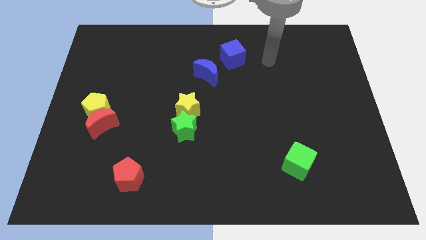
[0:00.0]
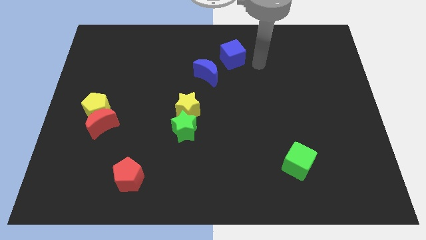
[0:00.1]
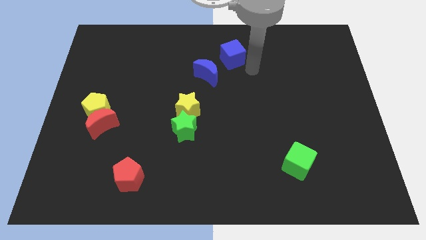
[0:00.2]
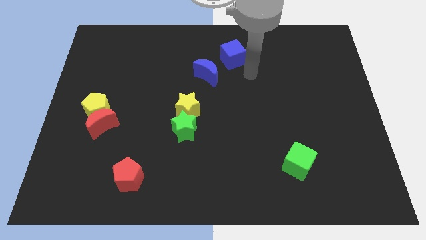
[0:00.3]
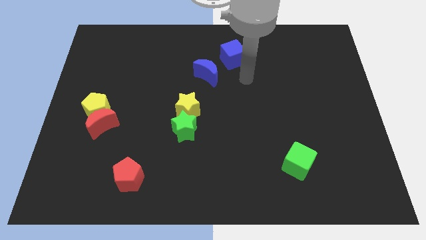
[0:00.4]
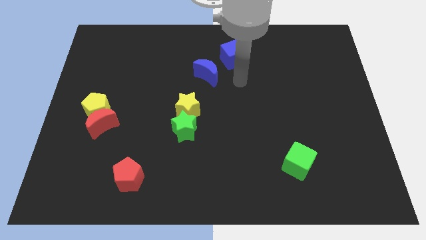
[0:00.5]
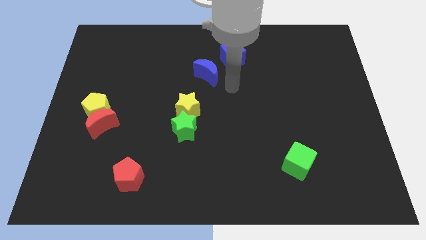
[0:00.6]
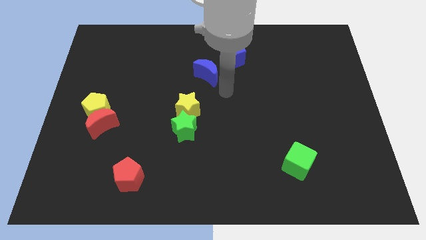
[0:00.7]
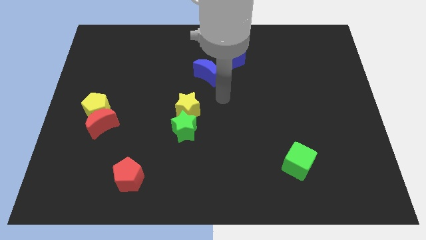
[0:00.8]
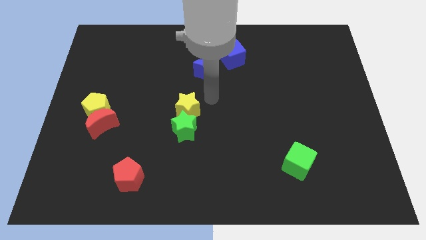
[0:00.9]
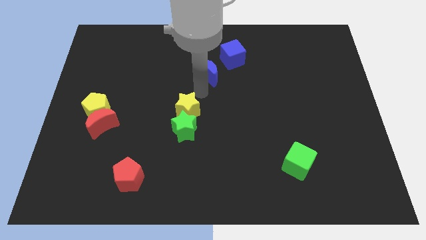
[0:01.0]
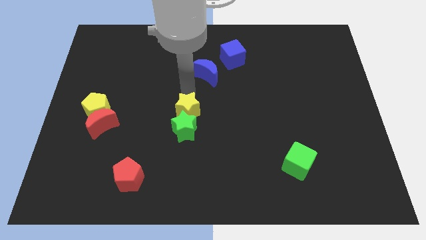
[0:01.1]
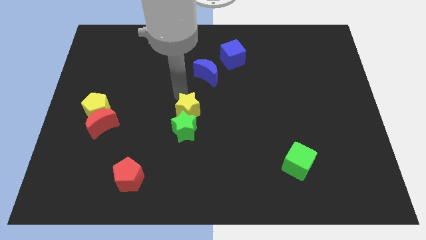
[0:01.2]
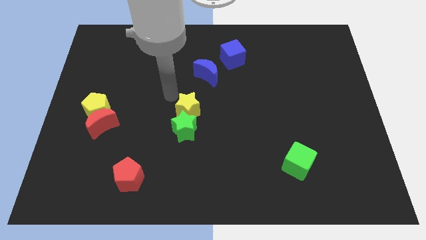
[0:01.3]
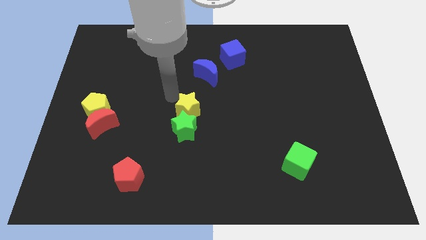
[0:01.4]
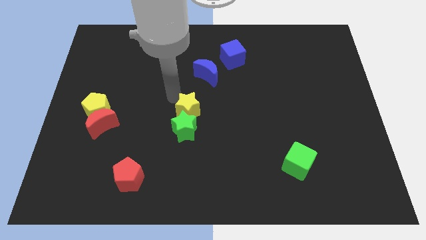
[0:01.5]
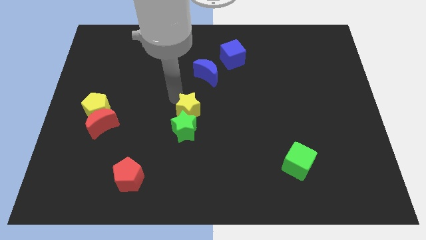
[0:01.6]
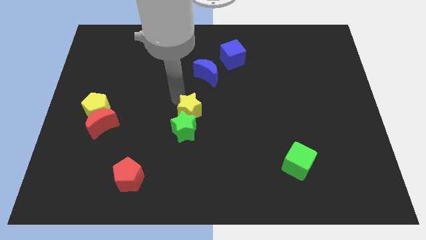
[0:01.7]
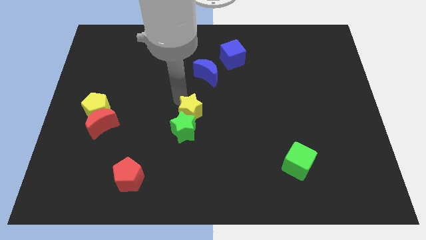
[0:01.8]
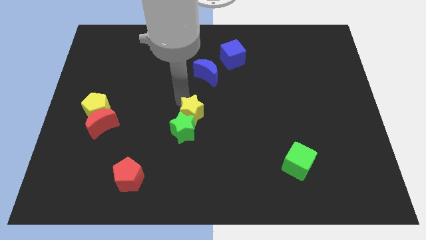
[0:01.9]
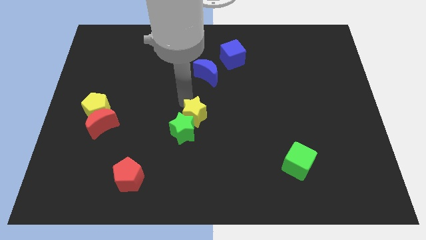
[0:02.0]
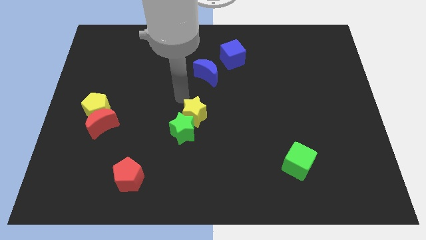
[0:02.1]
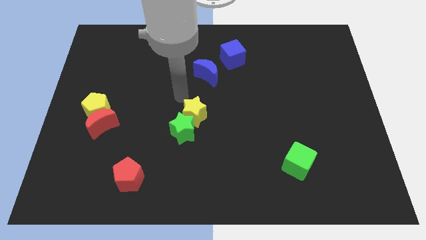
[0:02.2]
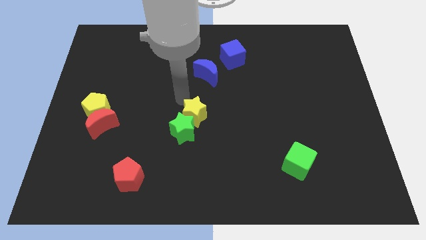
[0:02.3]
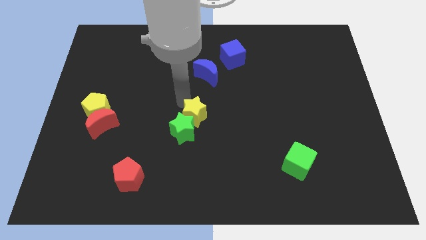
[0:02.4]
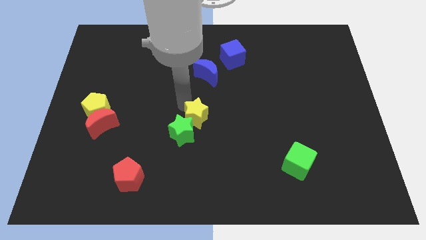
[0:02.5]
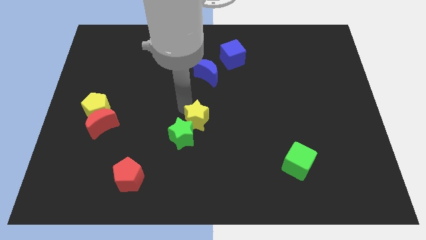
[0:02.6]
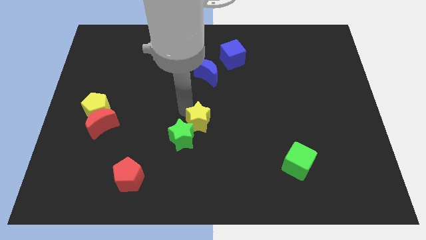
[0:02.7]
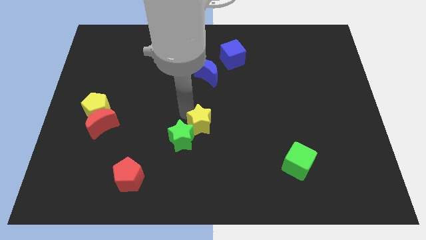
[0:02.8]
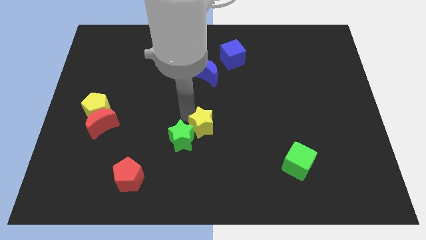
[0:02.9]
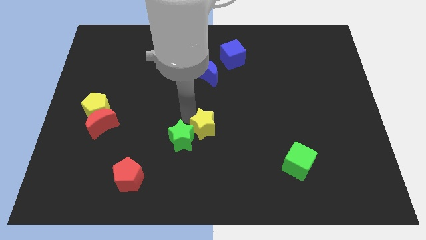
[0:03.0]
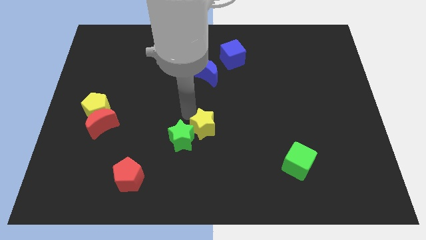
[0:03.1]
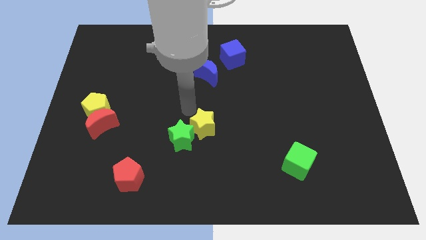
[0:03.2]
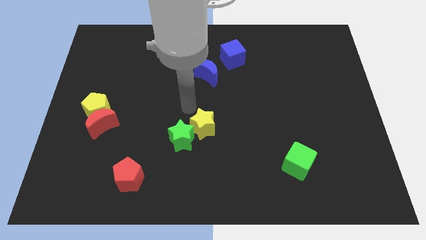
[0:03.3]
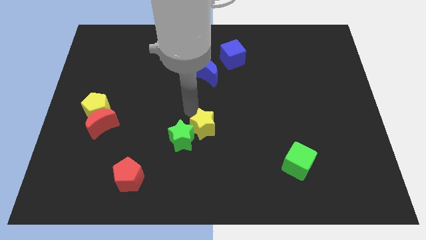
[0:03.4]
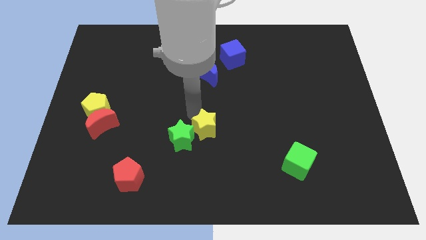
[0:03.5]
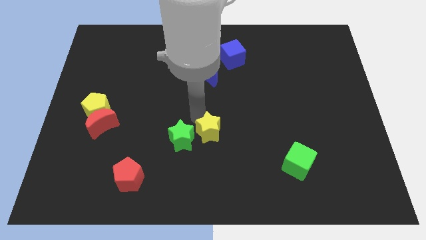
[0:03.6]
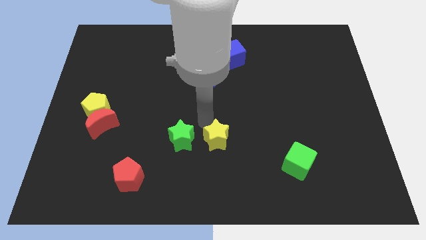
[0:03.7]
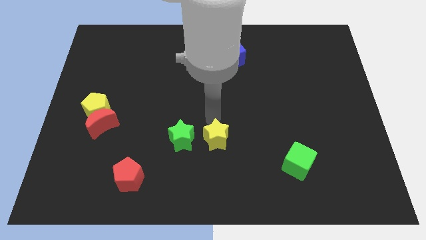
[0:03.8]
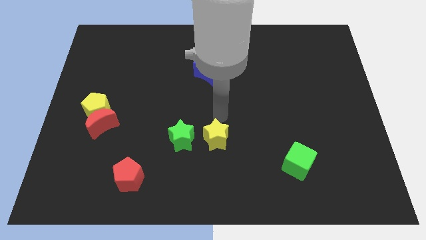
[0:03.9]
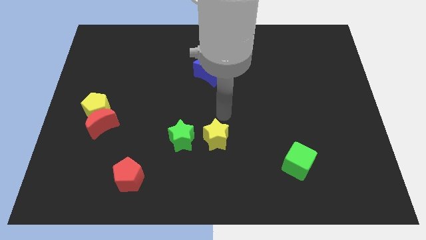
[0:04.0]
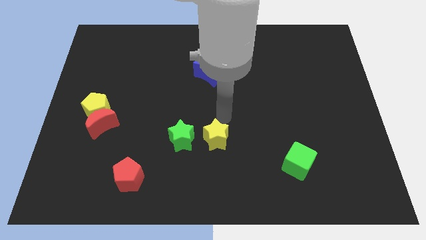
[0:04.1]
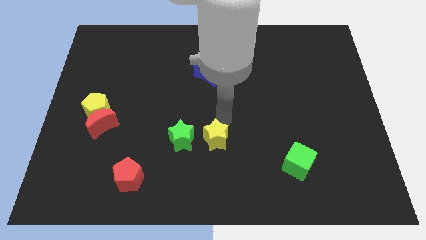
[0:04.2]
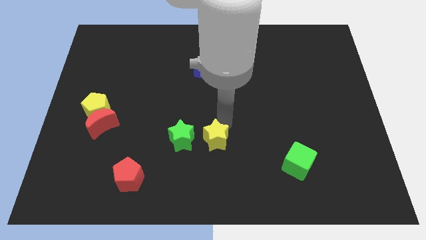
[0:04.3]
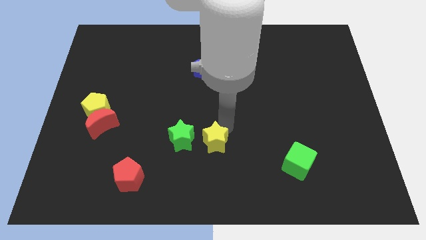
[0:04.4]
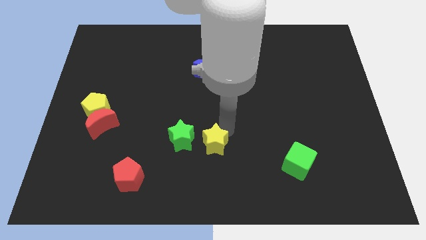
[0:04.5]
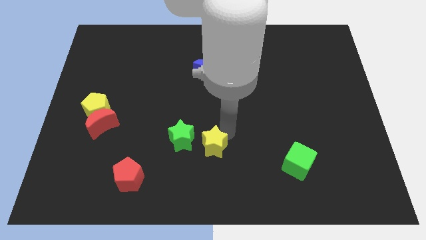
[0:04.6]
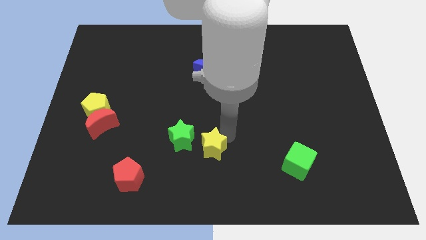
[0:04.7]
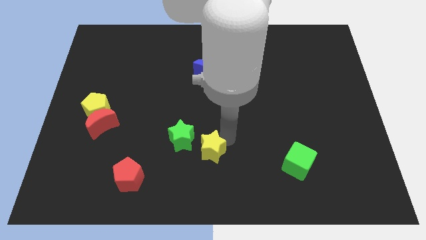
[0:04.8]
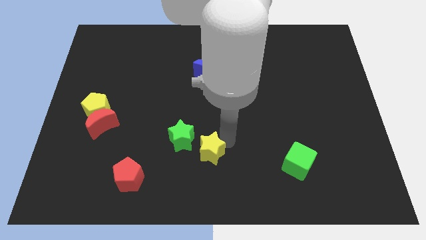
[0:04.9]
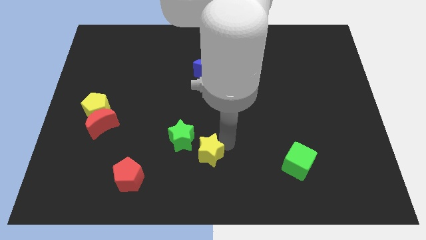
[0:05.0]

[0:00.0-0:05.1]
put the yellow star to the bottom side

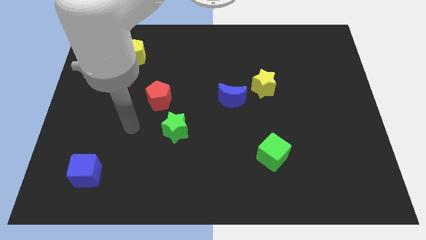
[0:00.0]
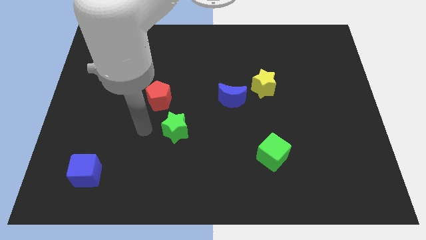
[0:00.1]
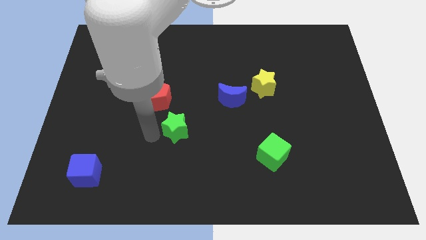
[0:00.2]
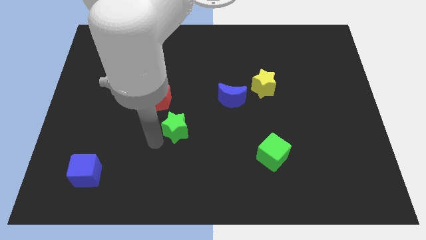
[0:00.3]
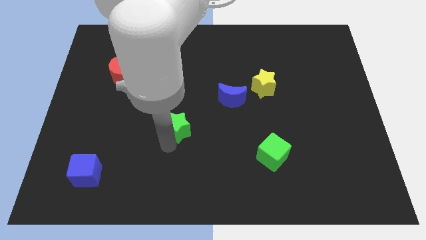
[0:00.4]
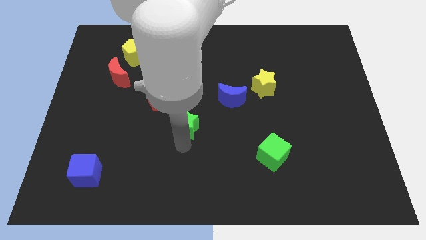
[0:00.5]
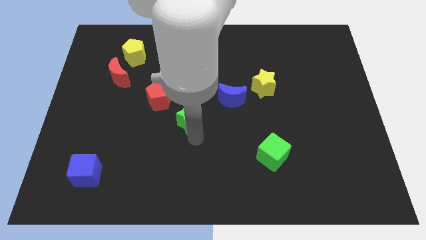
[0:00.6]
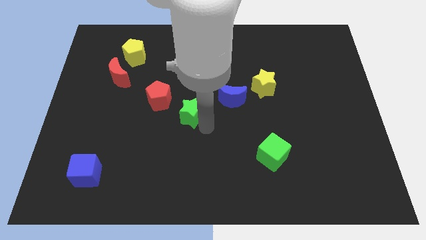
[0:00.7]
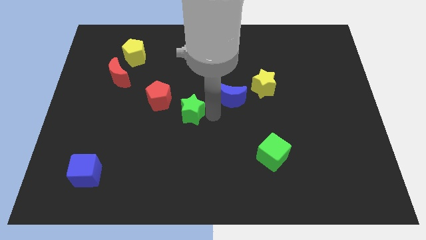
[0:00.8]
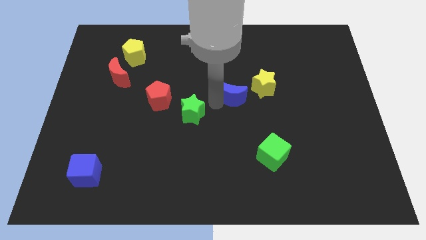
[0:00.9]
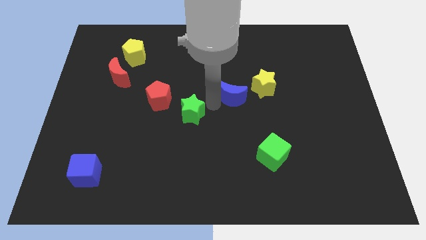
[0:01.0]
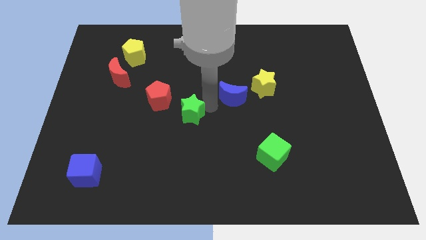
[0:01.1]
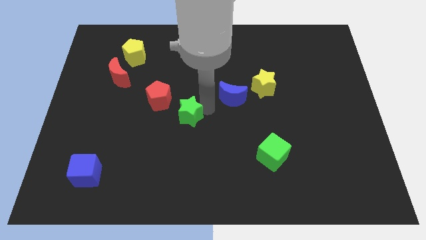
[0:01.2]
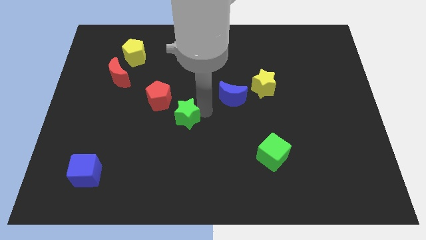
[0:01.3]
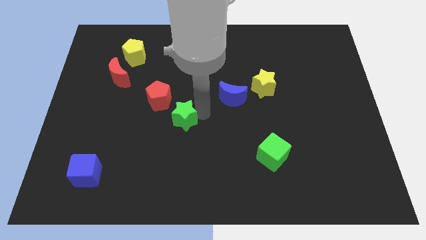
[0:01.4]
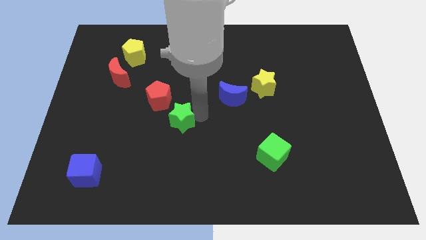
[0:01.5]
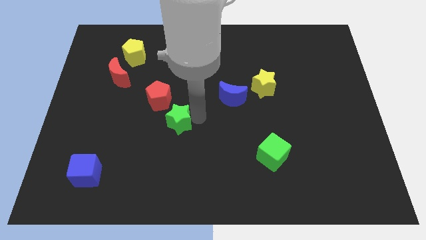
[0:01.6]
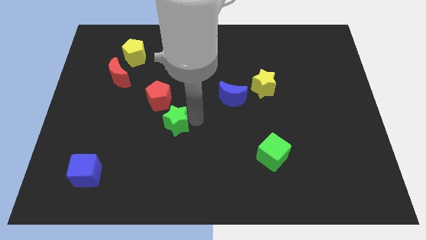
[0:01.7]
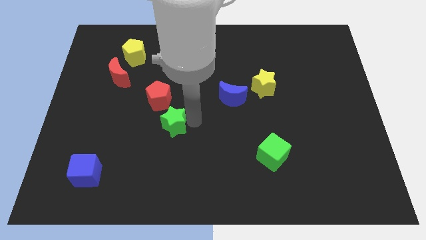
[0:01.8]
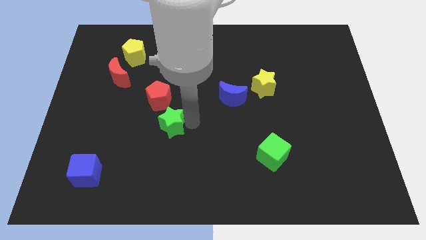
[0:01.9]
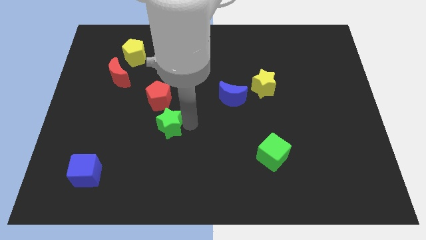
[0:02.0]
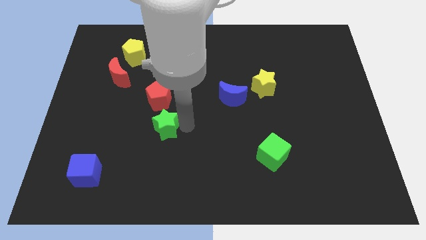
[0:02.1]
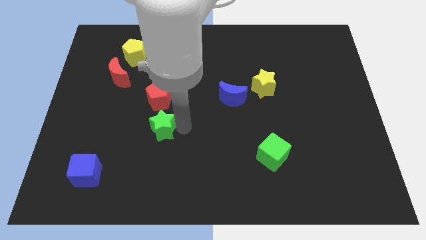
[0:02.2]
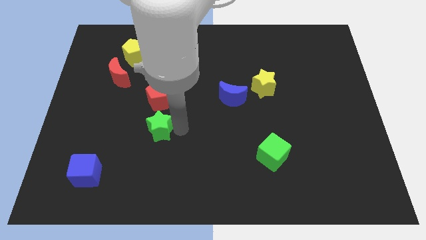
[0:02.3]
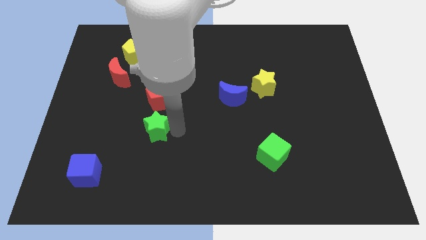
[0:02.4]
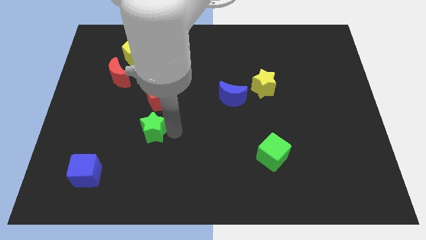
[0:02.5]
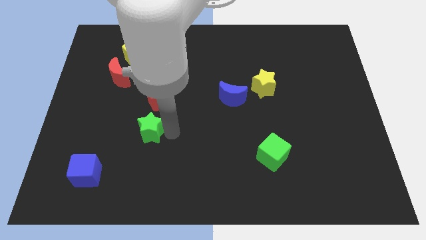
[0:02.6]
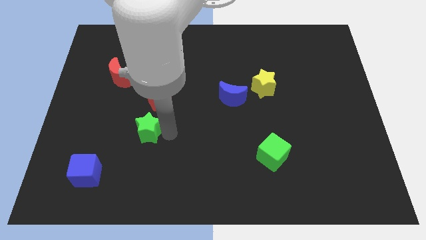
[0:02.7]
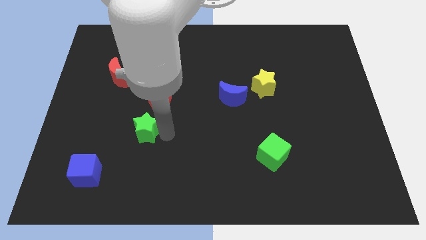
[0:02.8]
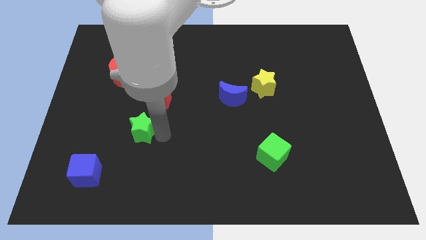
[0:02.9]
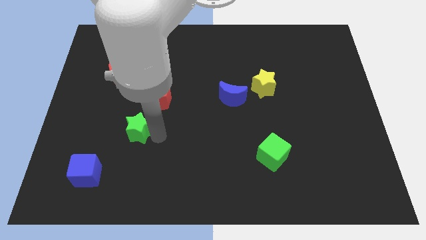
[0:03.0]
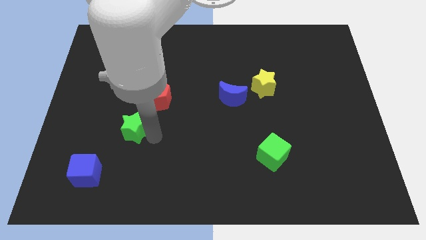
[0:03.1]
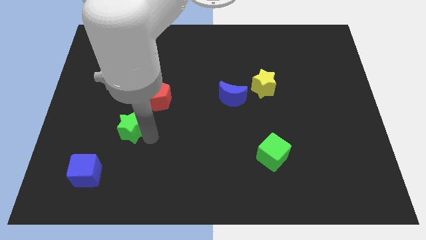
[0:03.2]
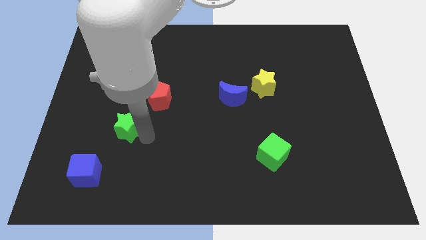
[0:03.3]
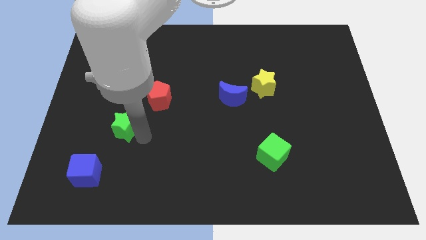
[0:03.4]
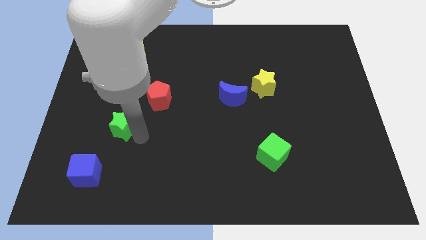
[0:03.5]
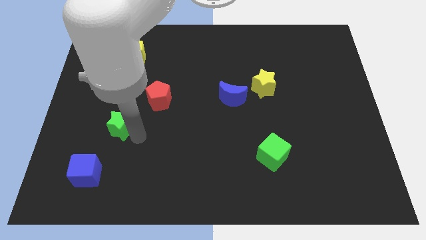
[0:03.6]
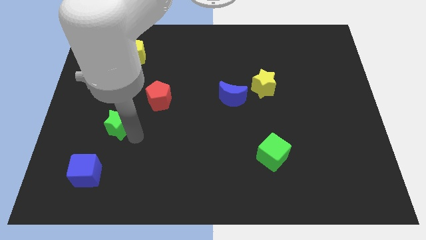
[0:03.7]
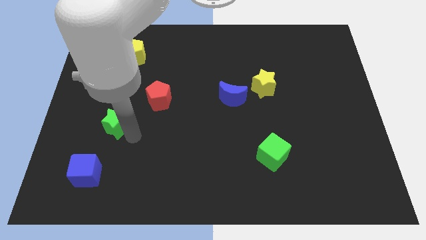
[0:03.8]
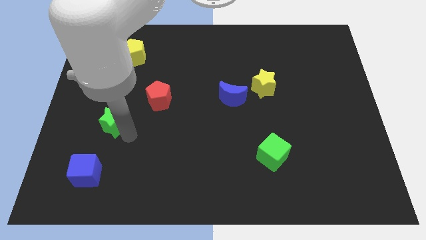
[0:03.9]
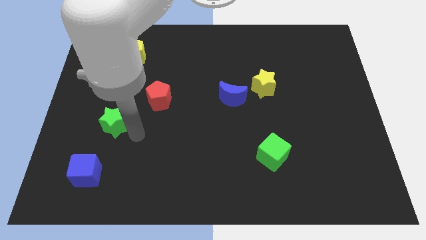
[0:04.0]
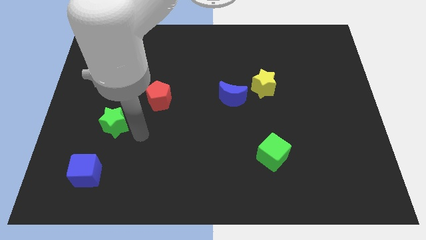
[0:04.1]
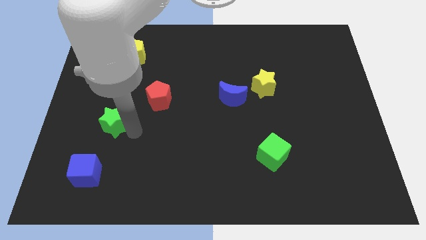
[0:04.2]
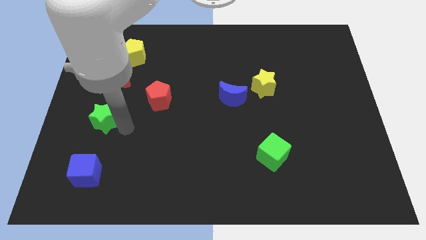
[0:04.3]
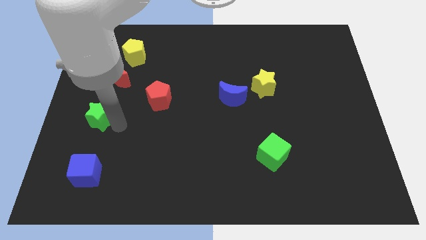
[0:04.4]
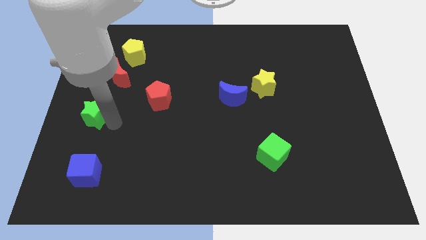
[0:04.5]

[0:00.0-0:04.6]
slide the green star to the left side
